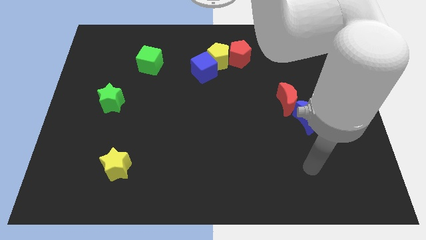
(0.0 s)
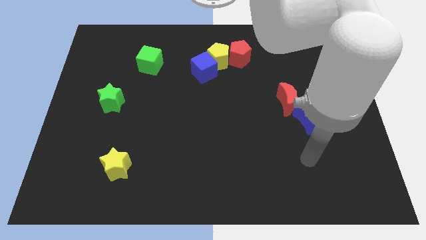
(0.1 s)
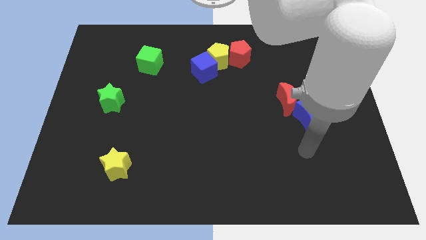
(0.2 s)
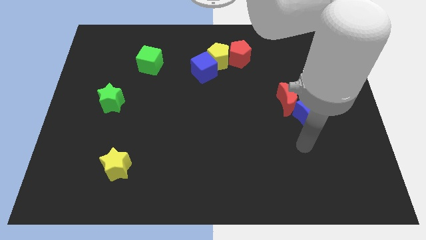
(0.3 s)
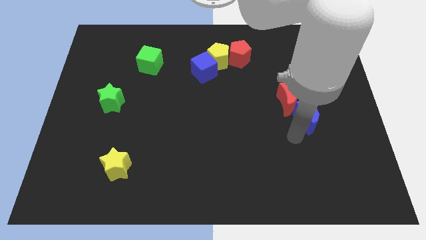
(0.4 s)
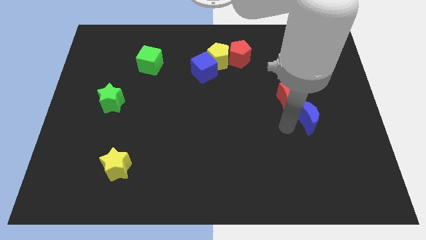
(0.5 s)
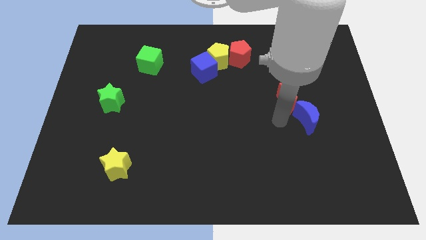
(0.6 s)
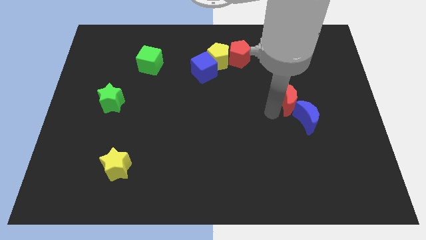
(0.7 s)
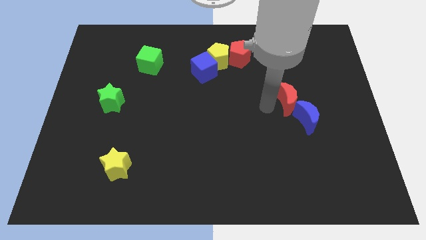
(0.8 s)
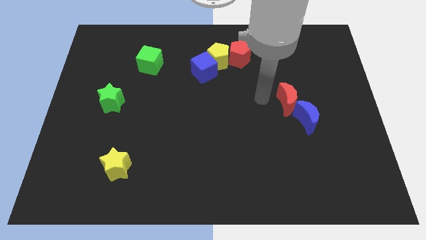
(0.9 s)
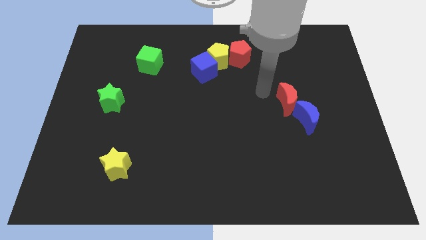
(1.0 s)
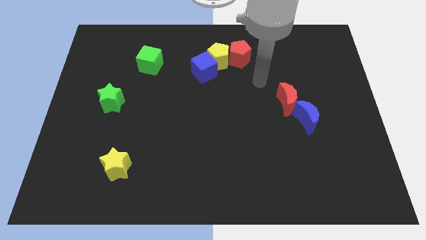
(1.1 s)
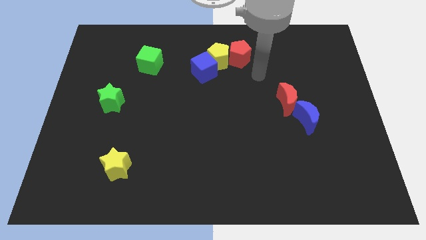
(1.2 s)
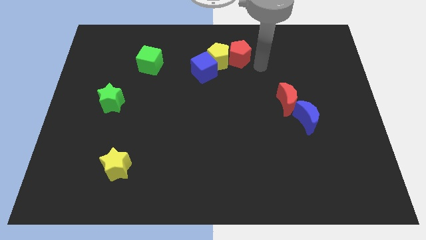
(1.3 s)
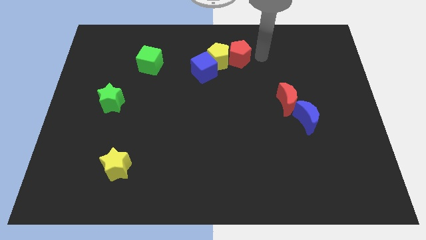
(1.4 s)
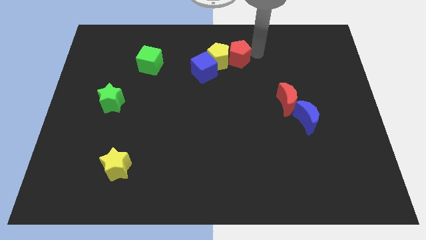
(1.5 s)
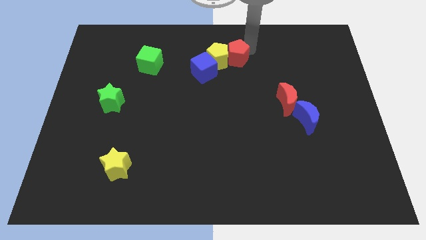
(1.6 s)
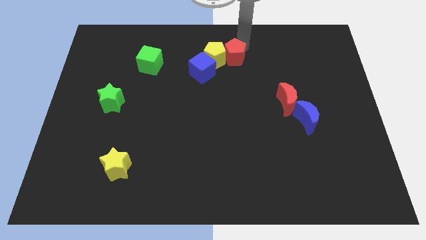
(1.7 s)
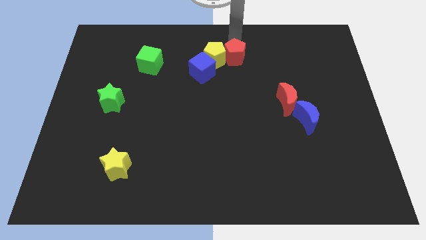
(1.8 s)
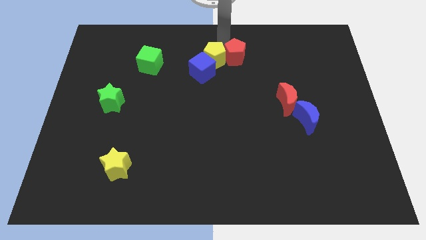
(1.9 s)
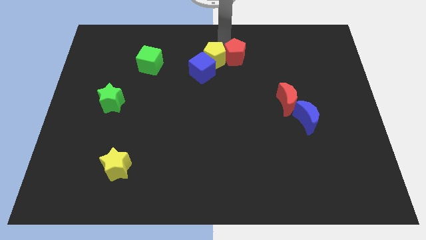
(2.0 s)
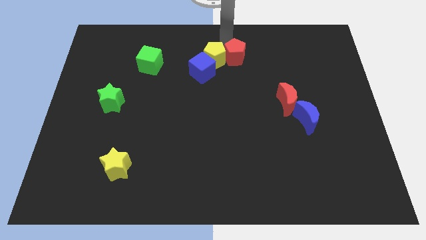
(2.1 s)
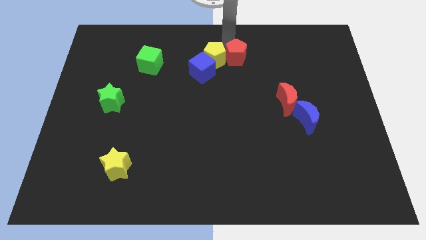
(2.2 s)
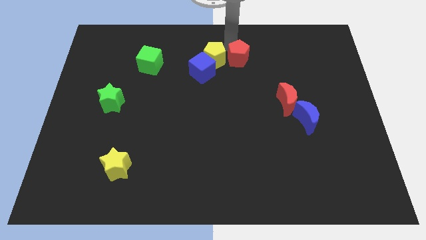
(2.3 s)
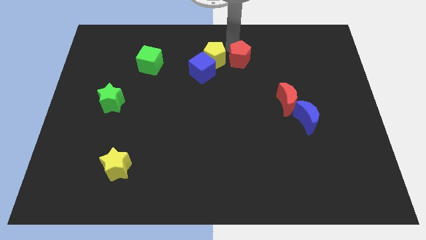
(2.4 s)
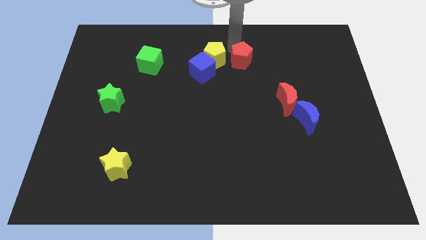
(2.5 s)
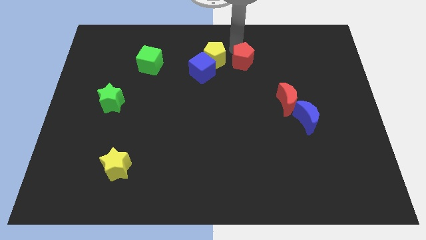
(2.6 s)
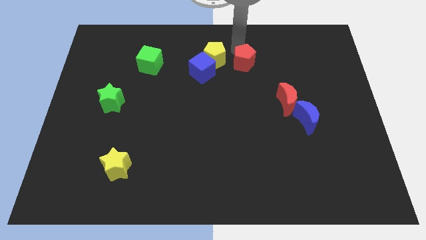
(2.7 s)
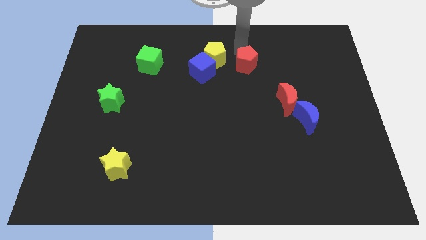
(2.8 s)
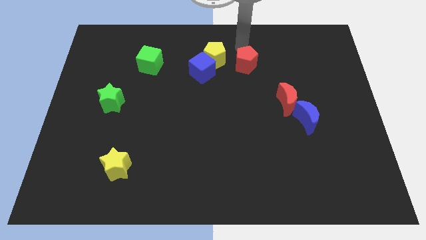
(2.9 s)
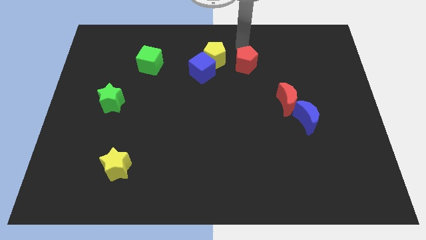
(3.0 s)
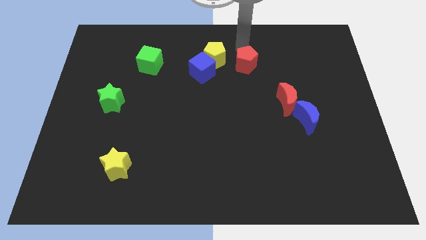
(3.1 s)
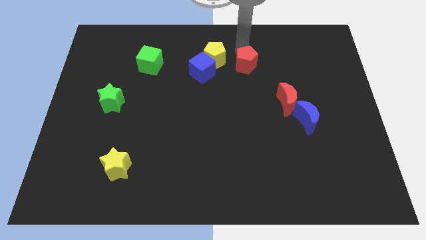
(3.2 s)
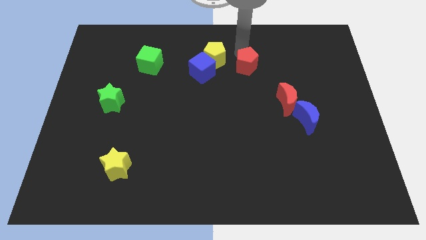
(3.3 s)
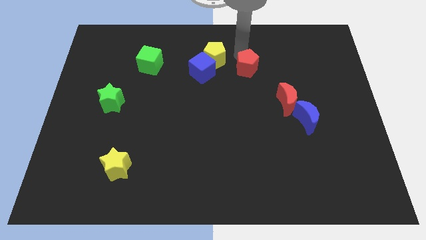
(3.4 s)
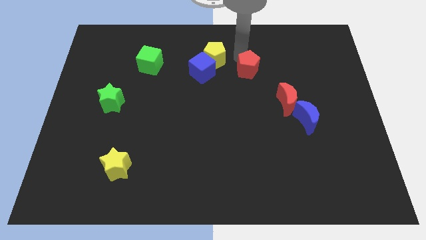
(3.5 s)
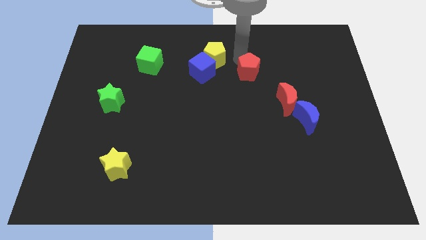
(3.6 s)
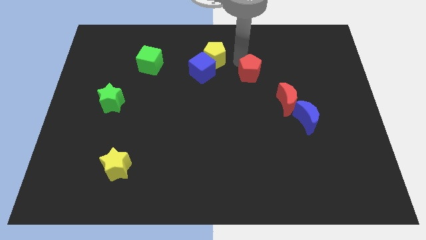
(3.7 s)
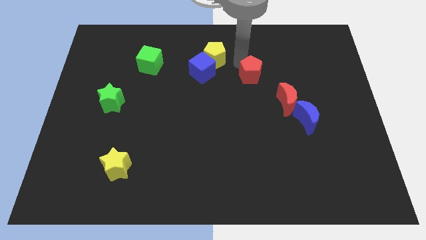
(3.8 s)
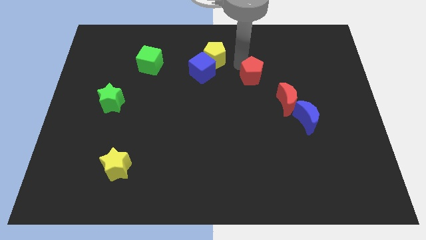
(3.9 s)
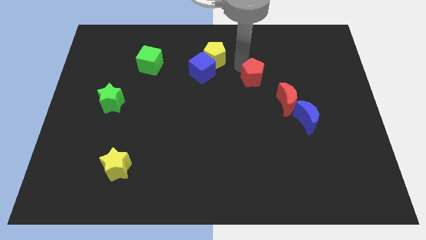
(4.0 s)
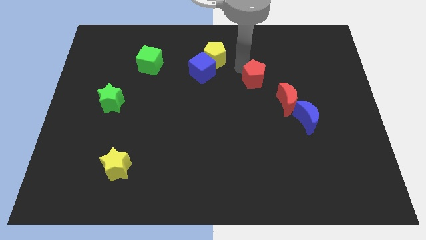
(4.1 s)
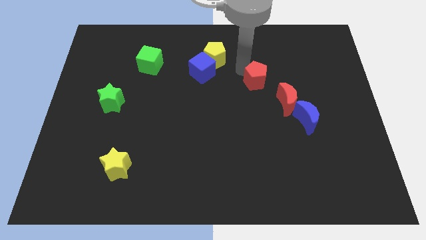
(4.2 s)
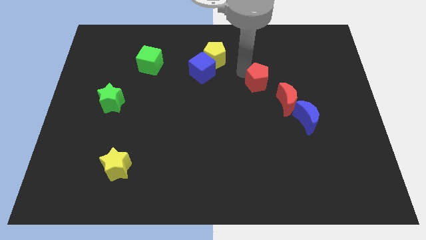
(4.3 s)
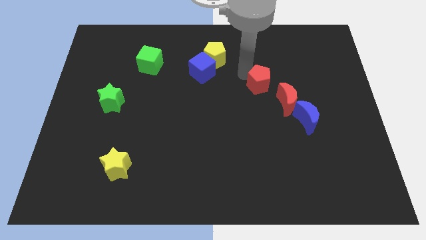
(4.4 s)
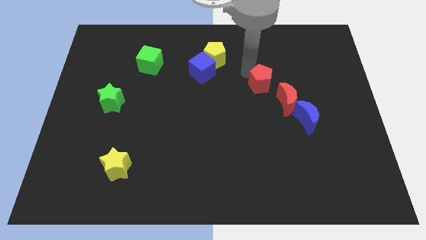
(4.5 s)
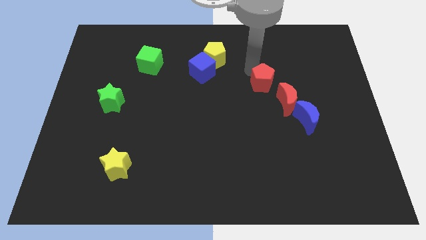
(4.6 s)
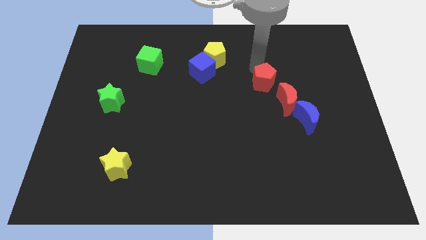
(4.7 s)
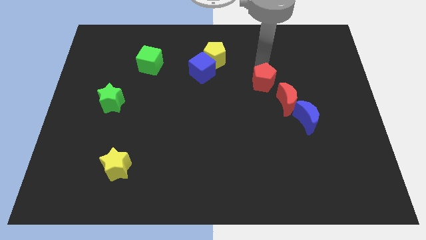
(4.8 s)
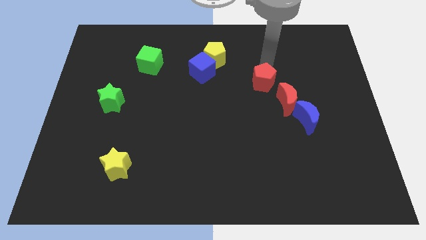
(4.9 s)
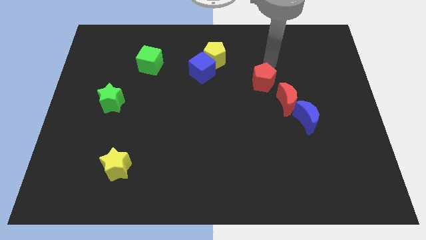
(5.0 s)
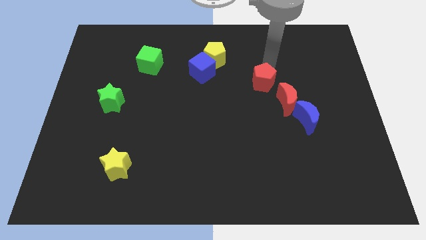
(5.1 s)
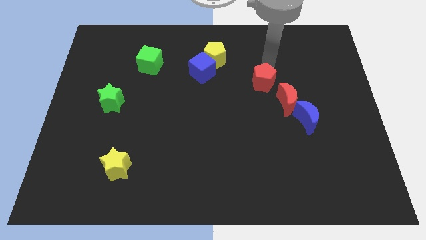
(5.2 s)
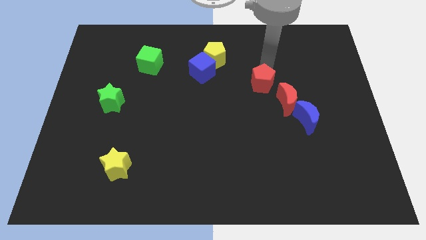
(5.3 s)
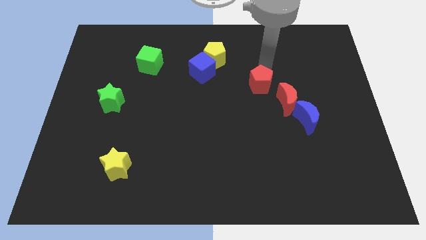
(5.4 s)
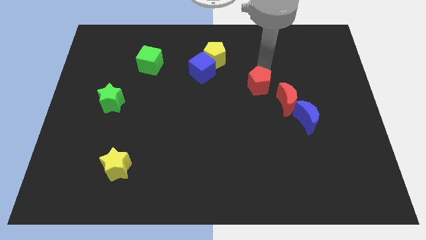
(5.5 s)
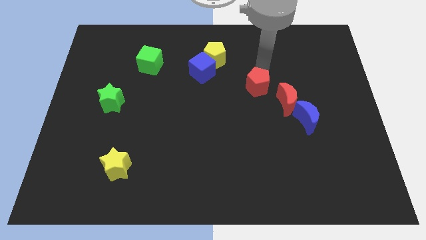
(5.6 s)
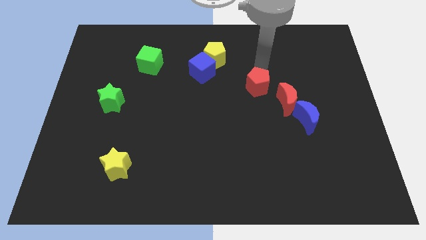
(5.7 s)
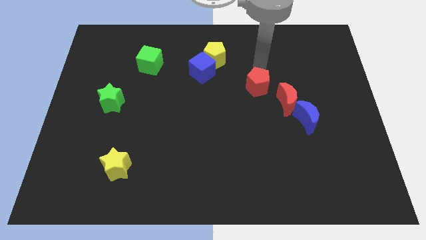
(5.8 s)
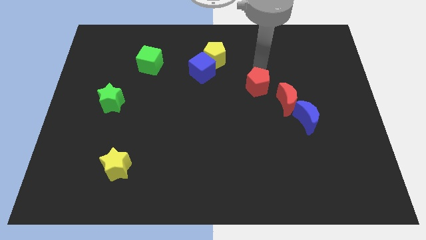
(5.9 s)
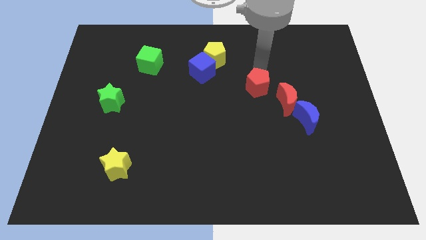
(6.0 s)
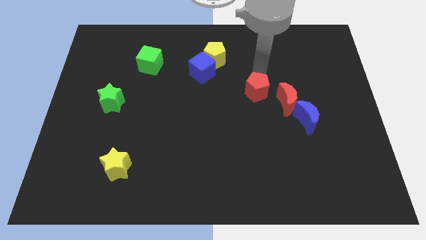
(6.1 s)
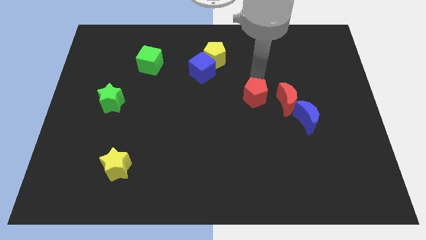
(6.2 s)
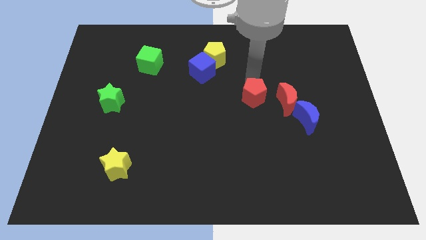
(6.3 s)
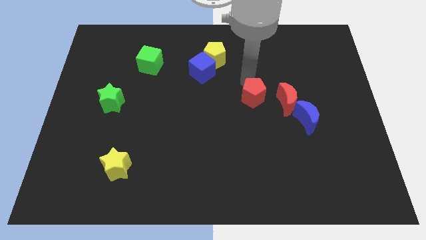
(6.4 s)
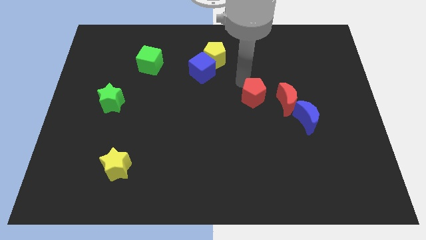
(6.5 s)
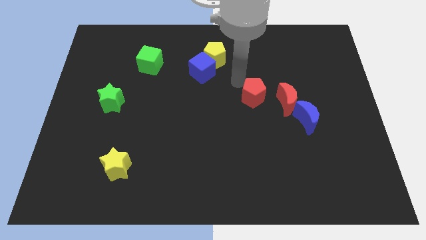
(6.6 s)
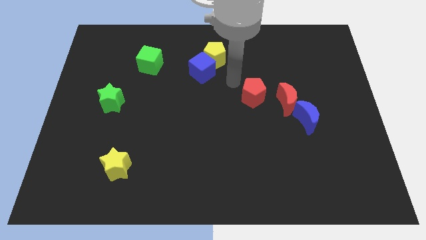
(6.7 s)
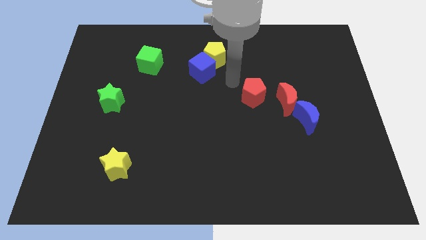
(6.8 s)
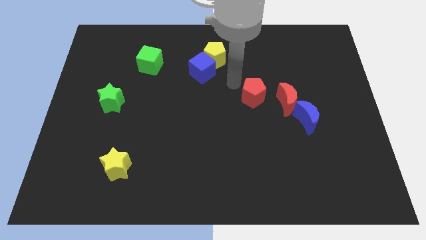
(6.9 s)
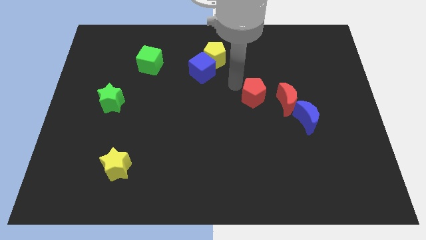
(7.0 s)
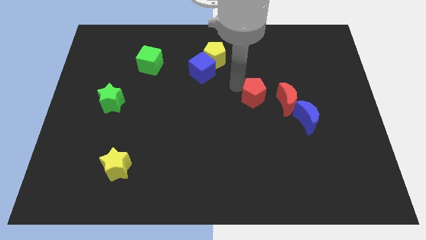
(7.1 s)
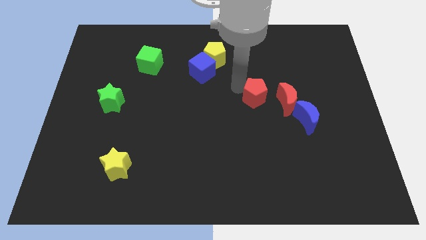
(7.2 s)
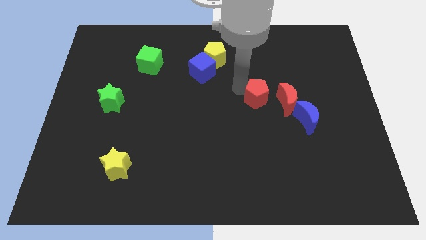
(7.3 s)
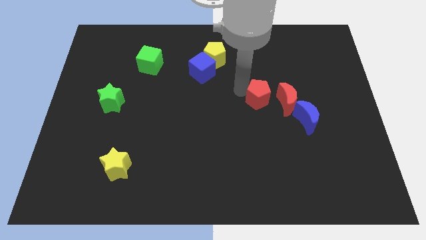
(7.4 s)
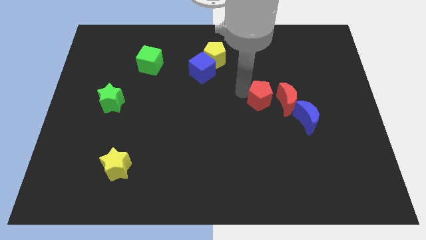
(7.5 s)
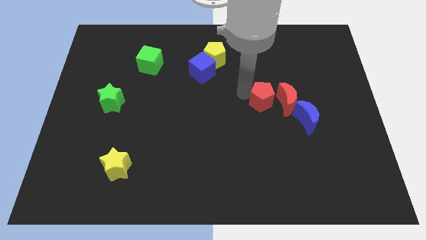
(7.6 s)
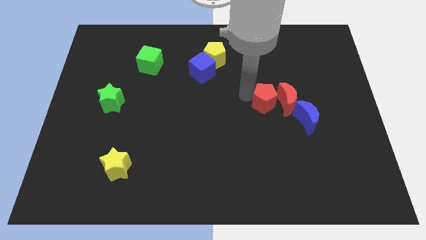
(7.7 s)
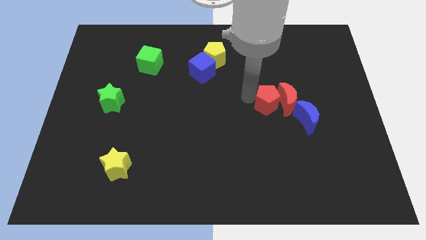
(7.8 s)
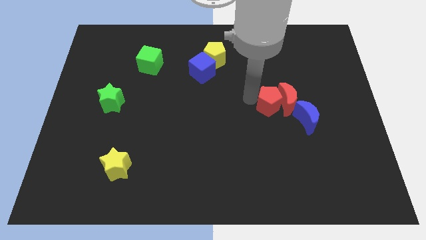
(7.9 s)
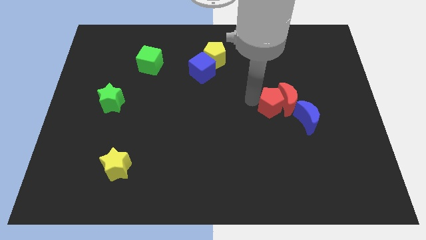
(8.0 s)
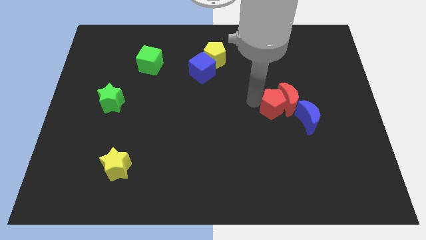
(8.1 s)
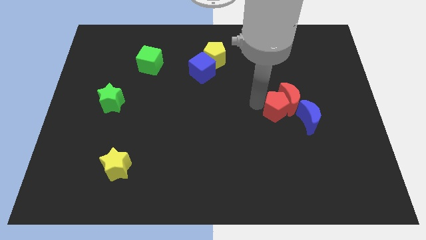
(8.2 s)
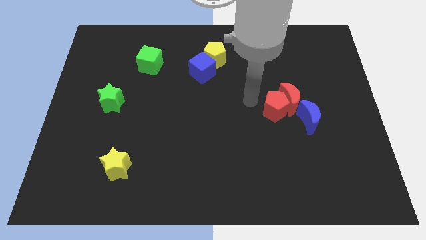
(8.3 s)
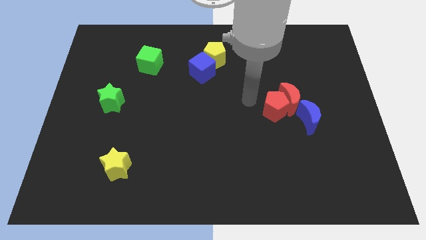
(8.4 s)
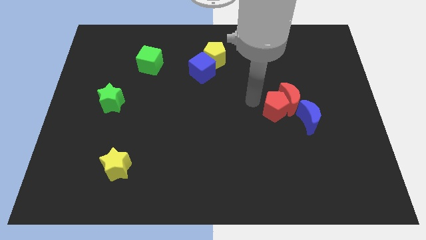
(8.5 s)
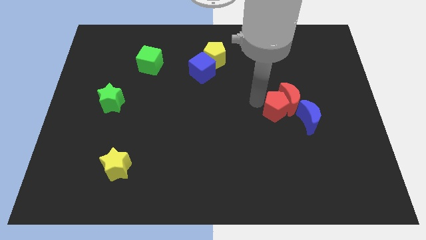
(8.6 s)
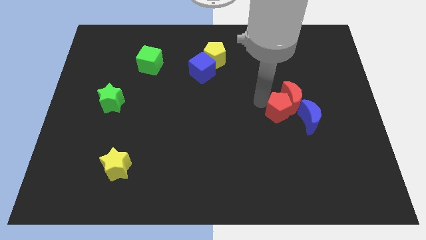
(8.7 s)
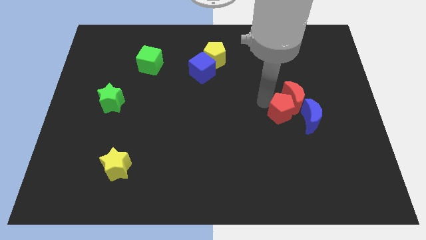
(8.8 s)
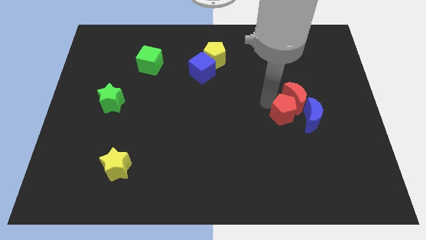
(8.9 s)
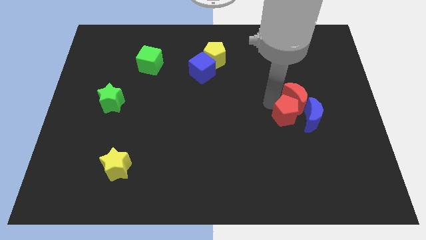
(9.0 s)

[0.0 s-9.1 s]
put the red pentagon towards the blue moon
